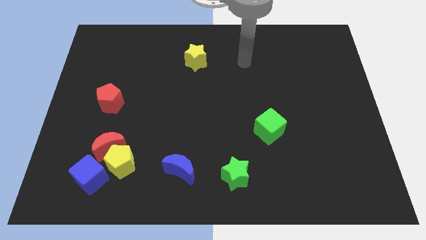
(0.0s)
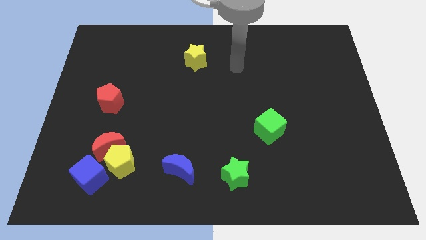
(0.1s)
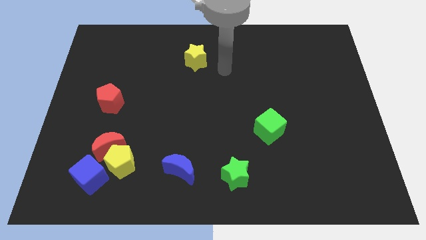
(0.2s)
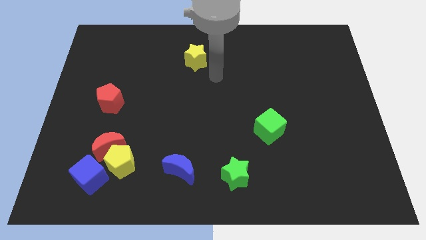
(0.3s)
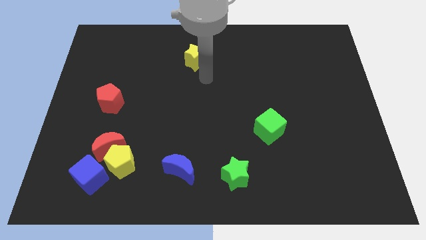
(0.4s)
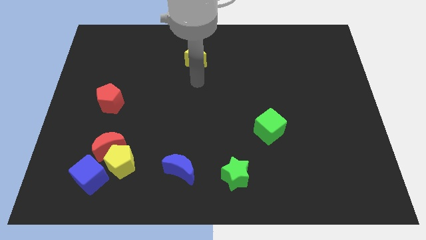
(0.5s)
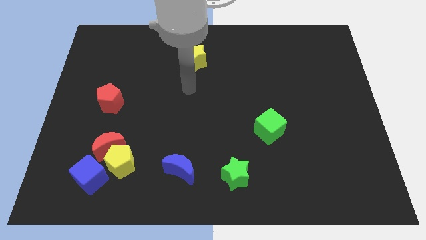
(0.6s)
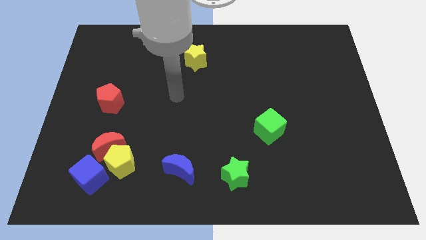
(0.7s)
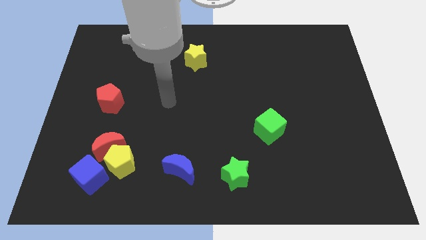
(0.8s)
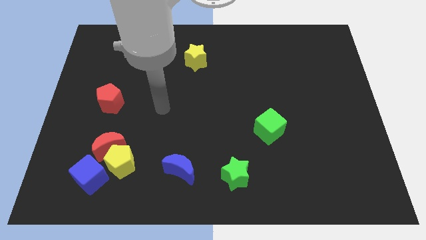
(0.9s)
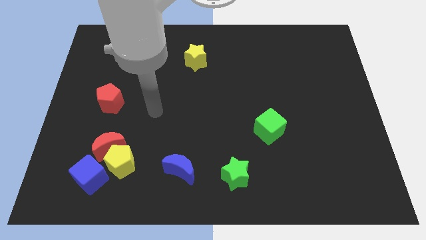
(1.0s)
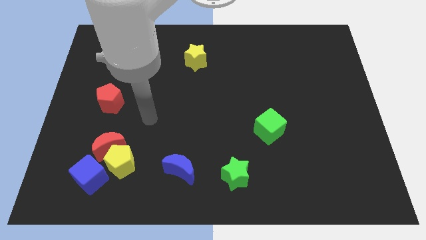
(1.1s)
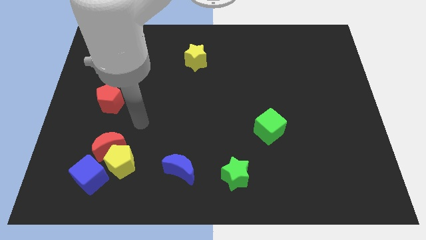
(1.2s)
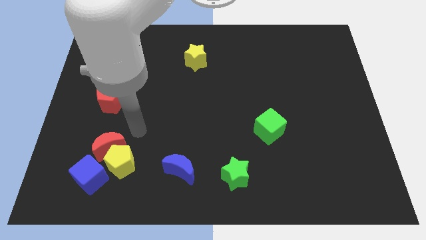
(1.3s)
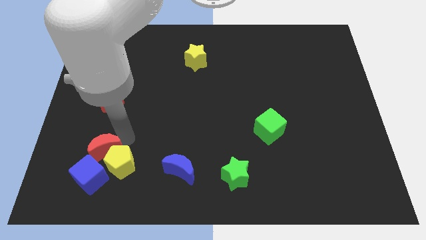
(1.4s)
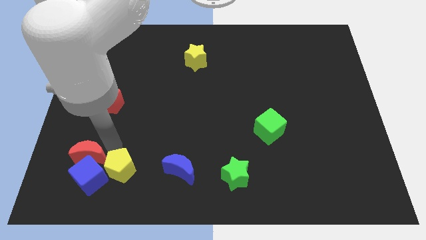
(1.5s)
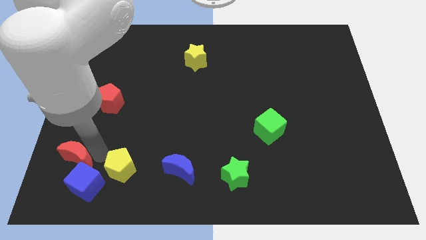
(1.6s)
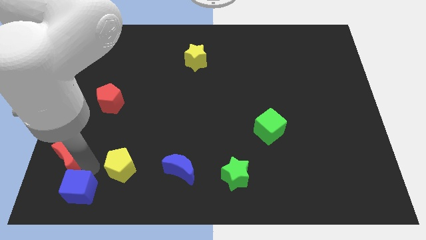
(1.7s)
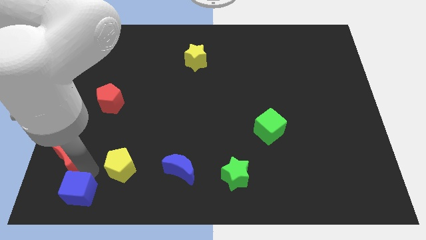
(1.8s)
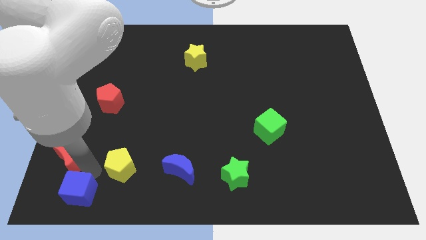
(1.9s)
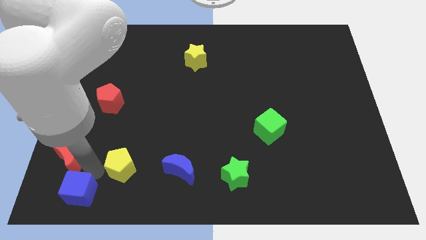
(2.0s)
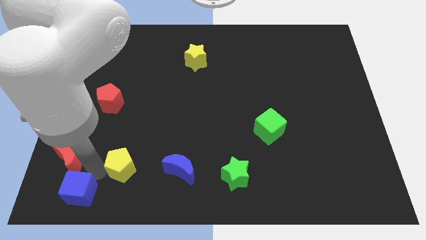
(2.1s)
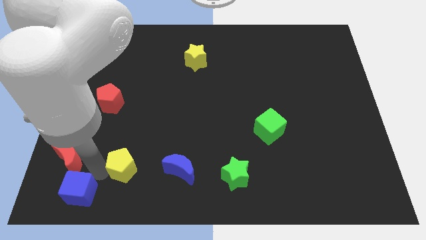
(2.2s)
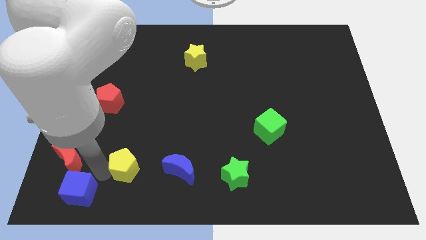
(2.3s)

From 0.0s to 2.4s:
move the yellow pentagon away from the red moon and blue cube

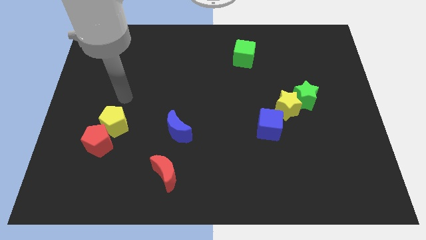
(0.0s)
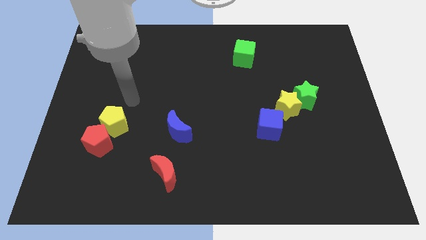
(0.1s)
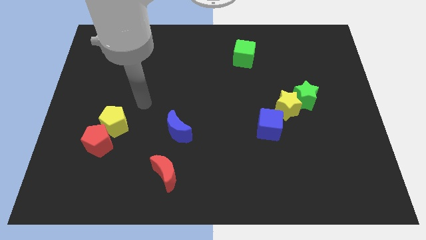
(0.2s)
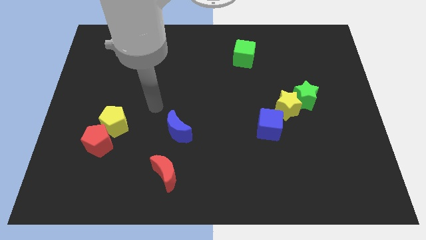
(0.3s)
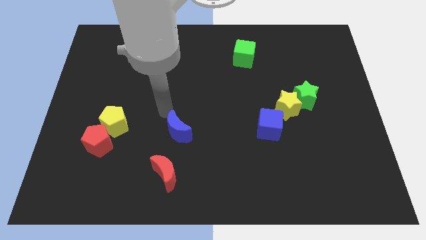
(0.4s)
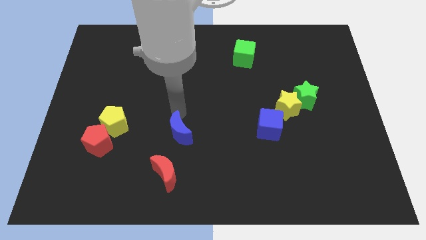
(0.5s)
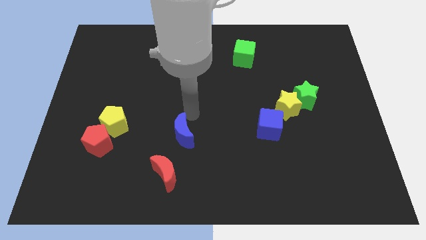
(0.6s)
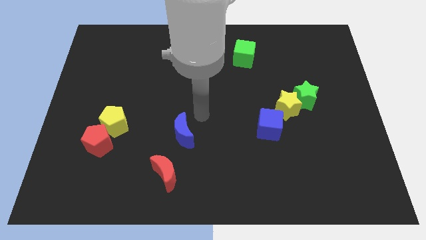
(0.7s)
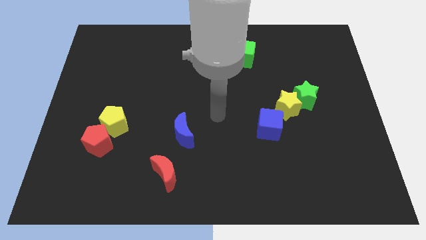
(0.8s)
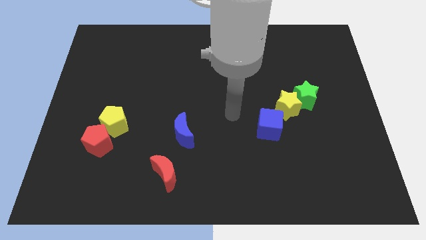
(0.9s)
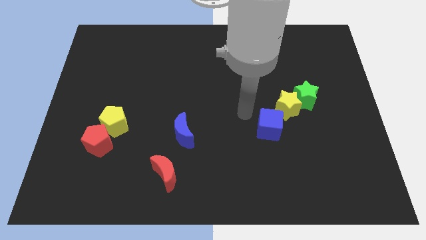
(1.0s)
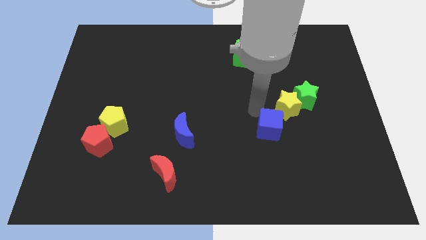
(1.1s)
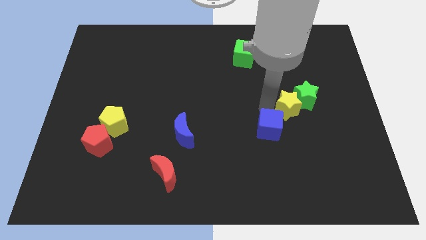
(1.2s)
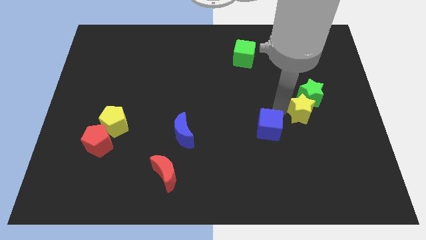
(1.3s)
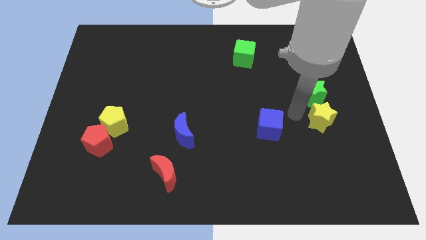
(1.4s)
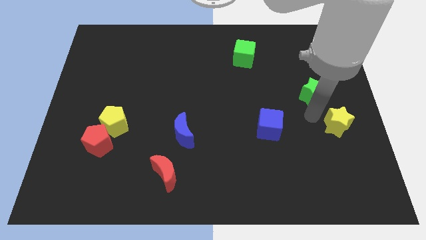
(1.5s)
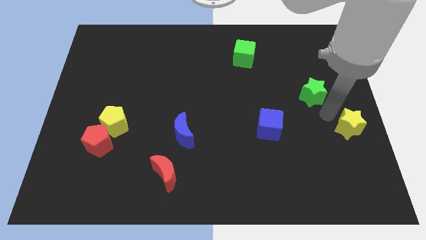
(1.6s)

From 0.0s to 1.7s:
pull the green star apart from the yellow star

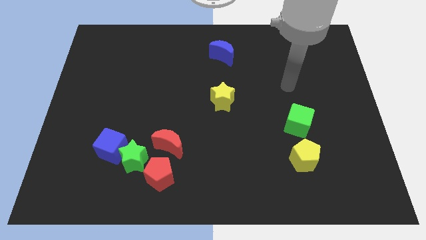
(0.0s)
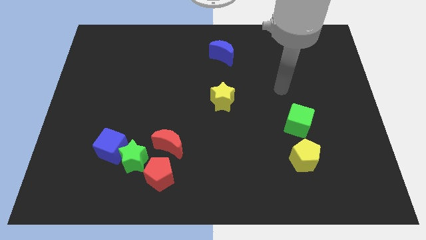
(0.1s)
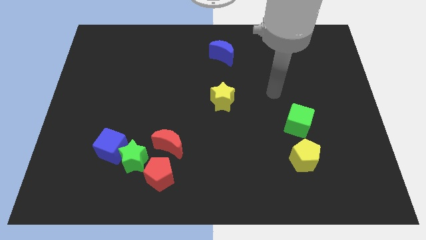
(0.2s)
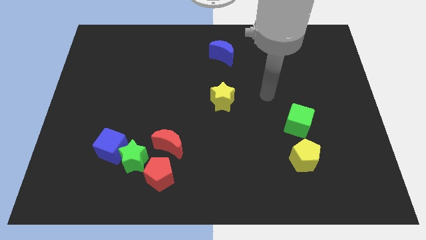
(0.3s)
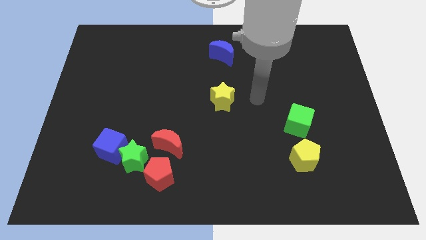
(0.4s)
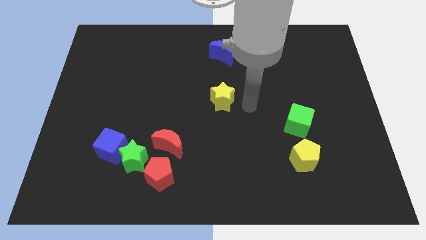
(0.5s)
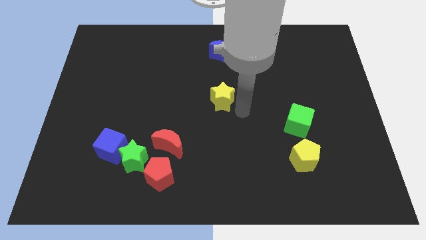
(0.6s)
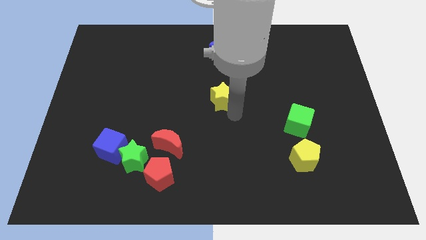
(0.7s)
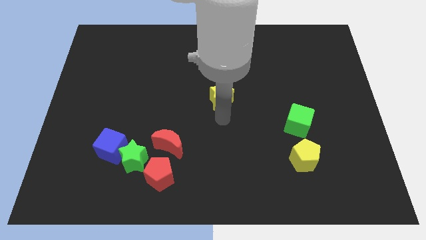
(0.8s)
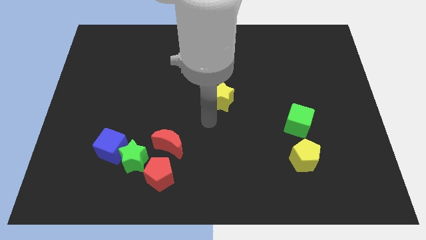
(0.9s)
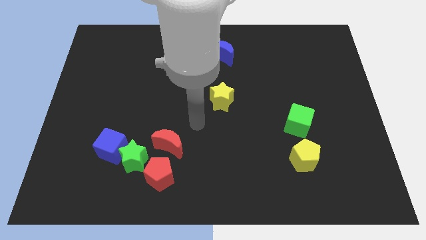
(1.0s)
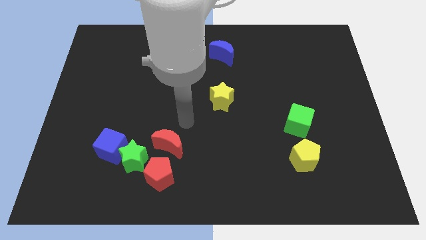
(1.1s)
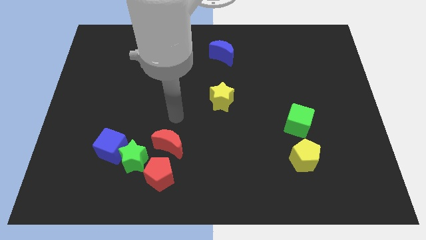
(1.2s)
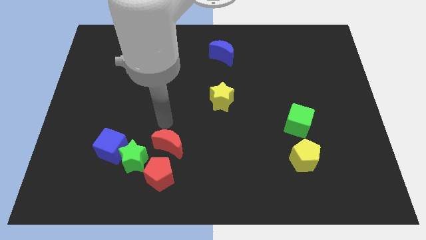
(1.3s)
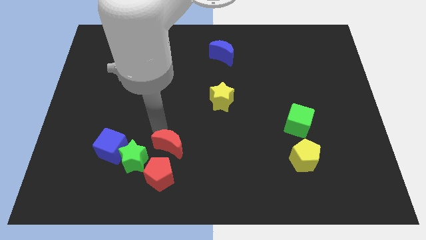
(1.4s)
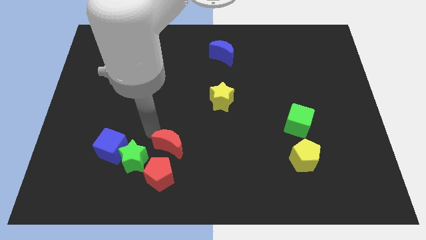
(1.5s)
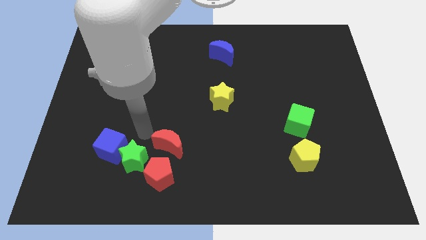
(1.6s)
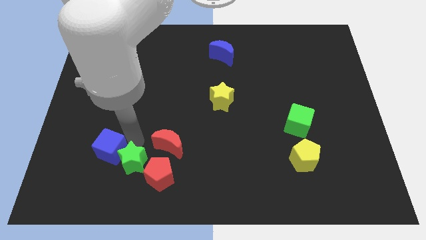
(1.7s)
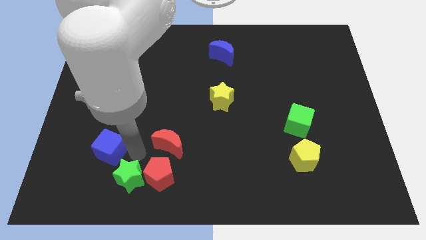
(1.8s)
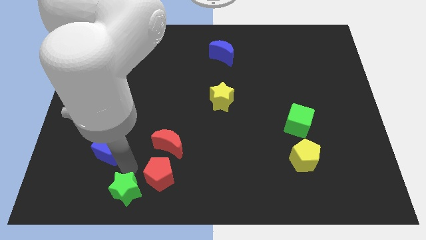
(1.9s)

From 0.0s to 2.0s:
separate the blue cube from the green star

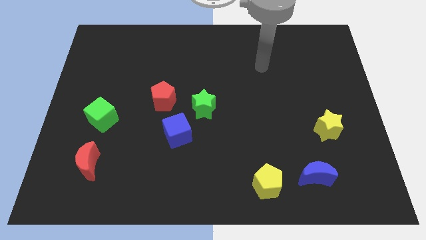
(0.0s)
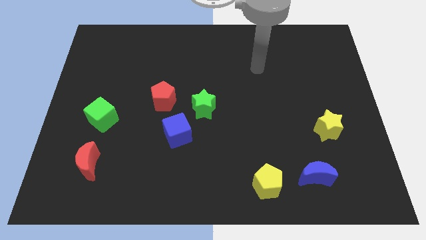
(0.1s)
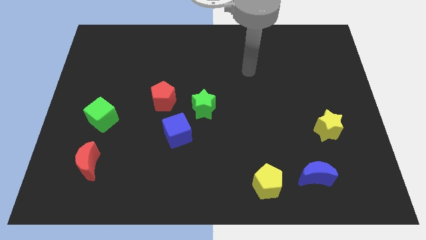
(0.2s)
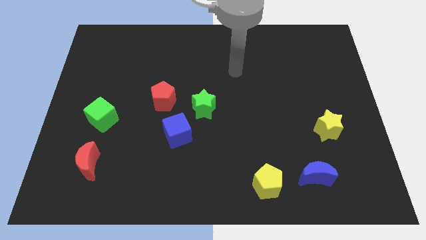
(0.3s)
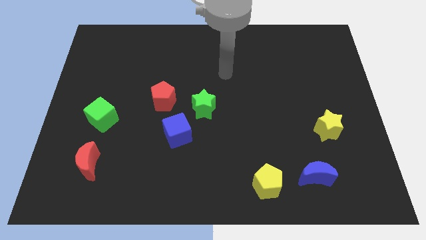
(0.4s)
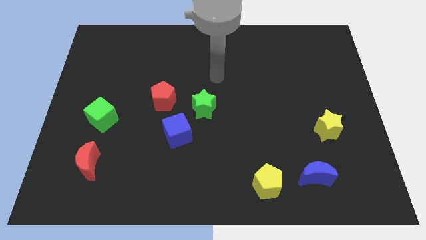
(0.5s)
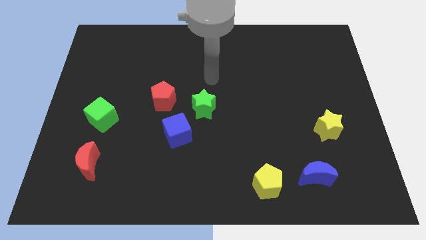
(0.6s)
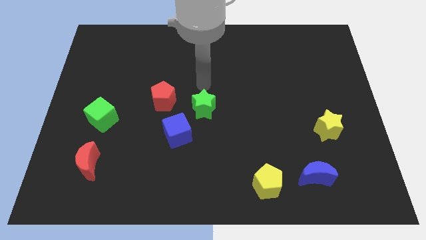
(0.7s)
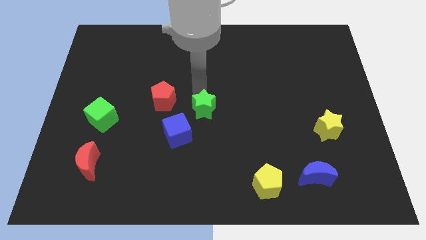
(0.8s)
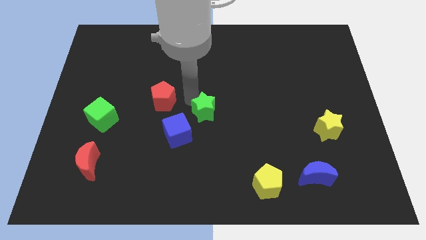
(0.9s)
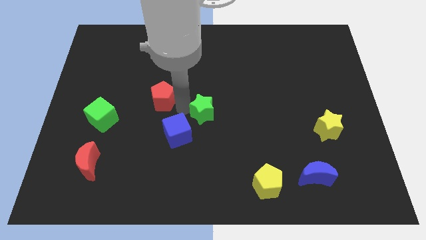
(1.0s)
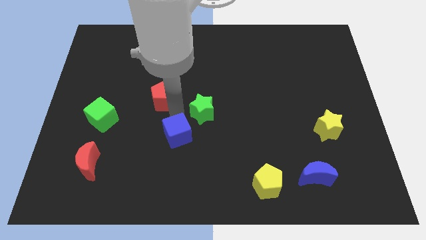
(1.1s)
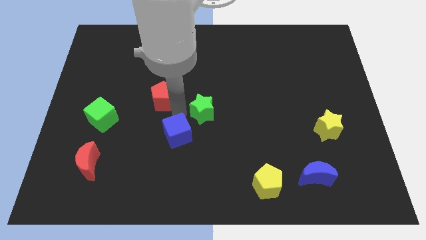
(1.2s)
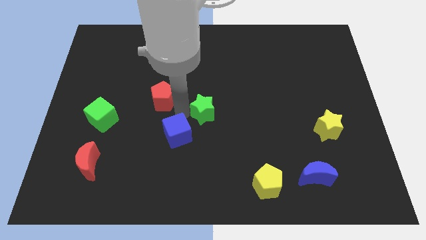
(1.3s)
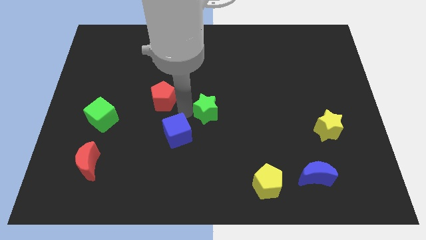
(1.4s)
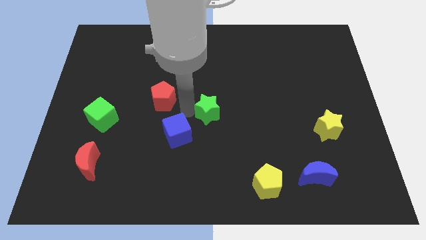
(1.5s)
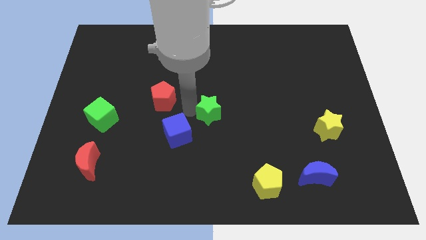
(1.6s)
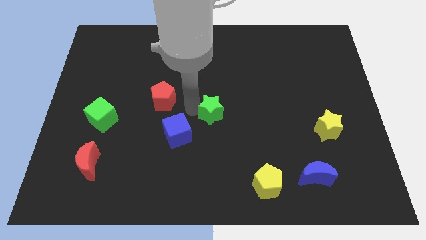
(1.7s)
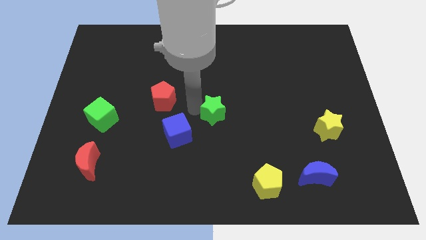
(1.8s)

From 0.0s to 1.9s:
pull the green star apart from the blue cube and red pentagon

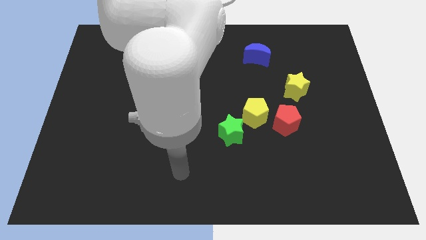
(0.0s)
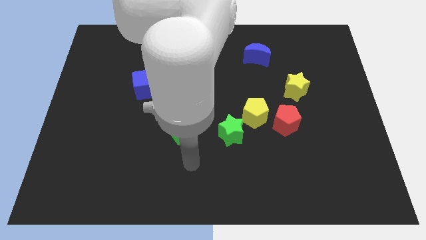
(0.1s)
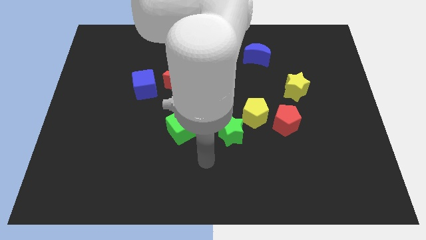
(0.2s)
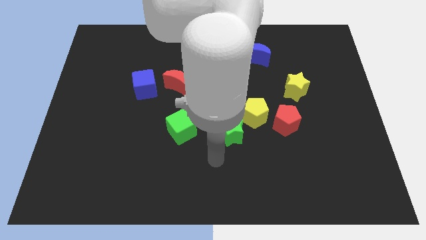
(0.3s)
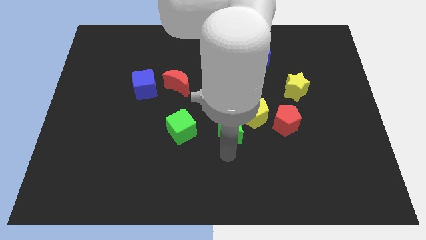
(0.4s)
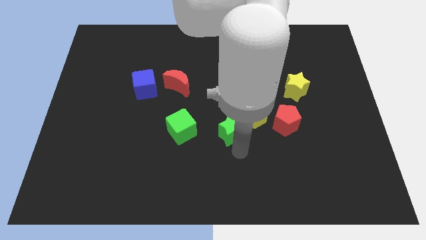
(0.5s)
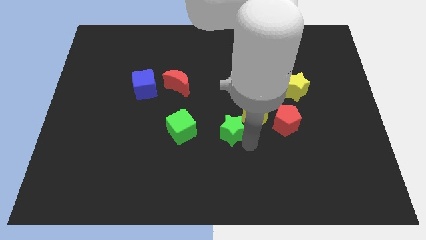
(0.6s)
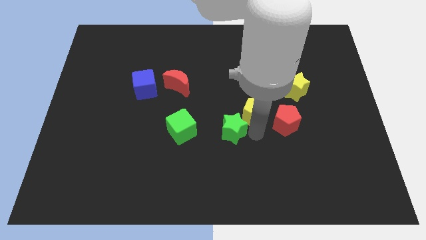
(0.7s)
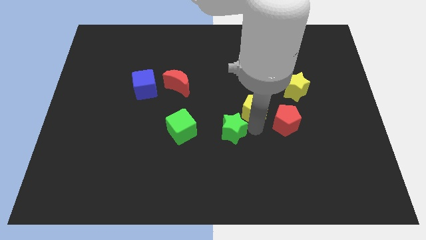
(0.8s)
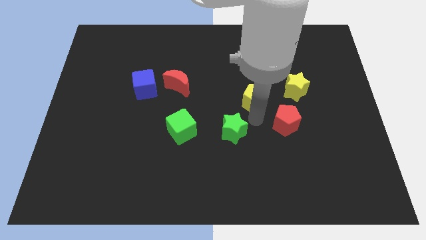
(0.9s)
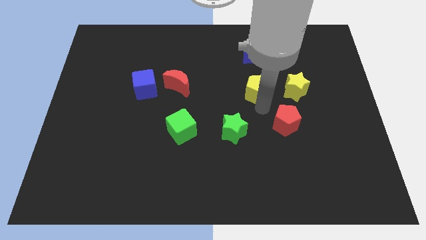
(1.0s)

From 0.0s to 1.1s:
move the red pentagon away from the yellow pentagon

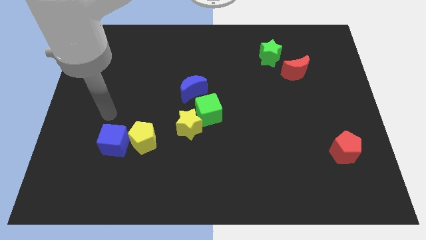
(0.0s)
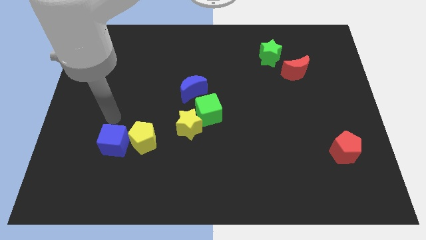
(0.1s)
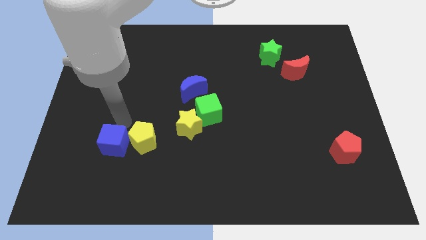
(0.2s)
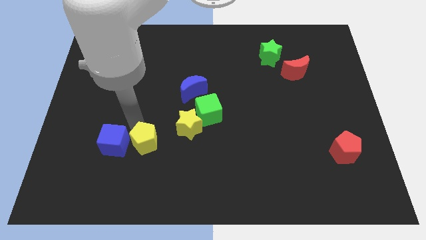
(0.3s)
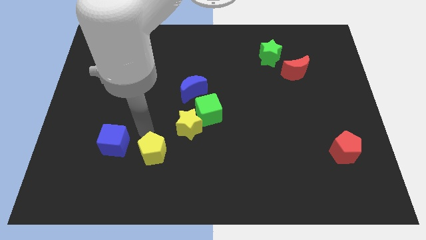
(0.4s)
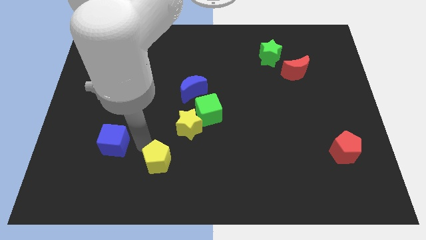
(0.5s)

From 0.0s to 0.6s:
move the blue cube away from the yellow pentagon
